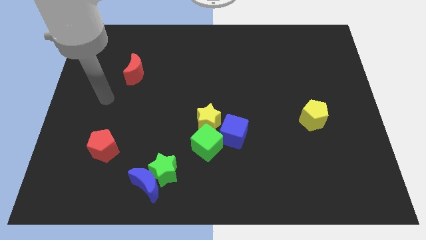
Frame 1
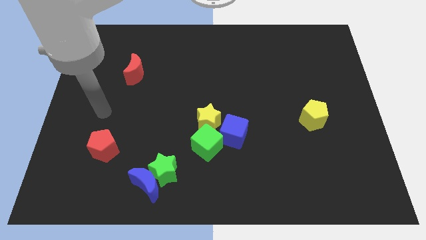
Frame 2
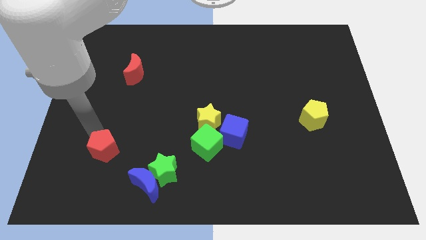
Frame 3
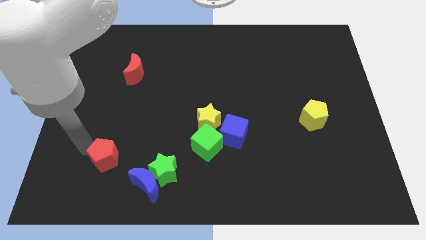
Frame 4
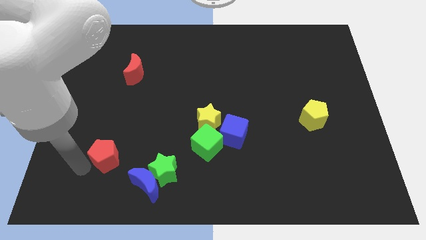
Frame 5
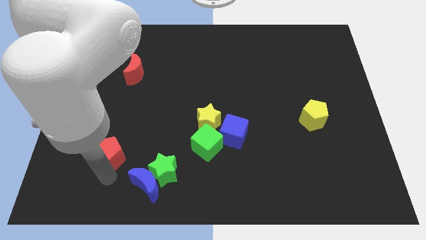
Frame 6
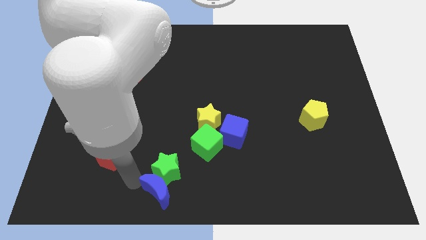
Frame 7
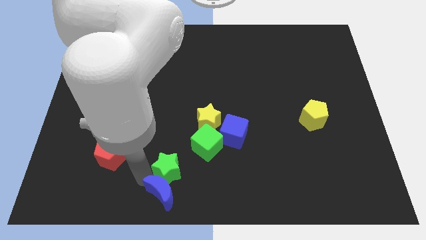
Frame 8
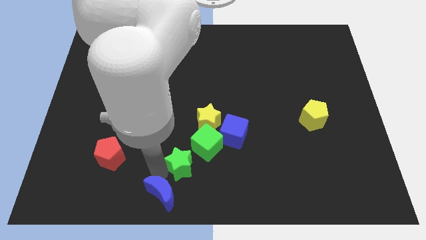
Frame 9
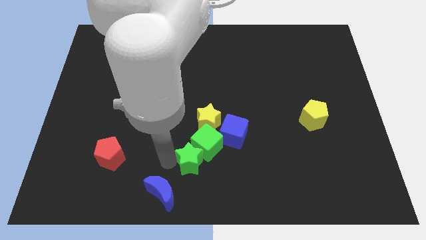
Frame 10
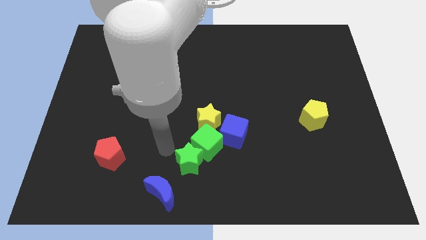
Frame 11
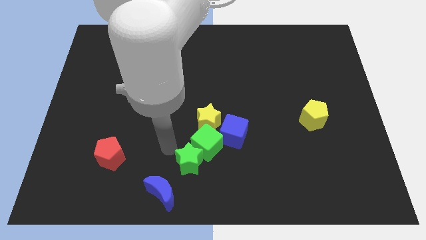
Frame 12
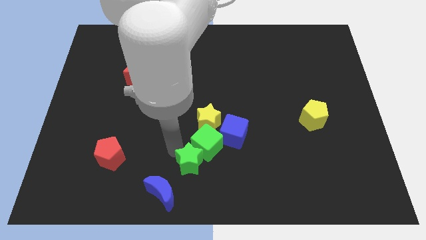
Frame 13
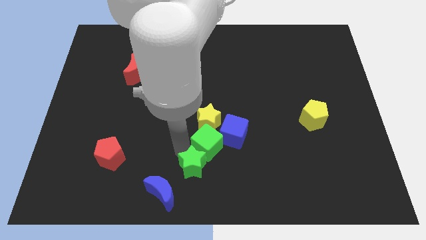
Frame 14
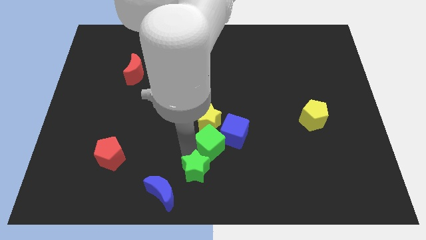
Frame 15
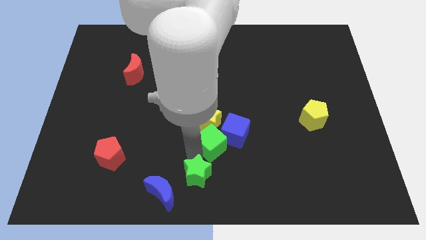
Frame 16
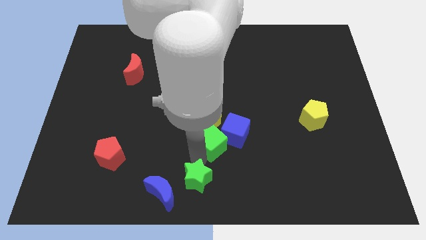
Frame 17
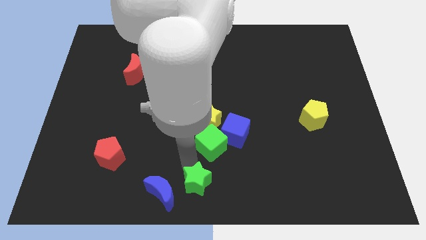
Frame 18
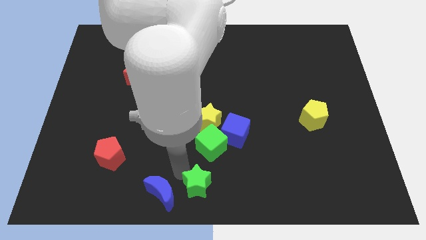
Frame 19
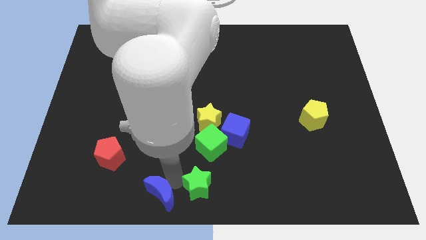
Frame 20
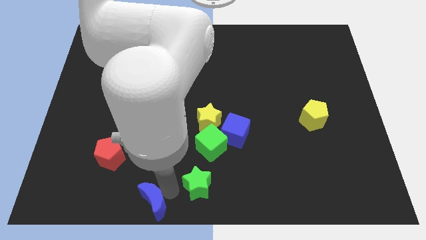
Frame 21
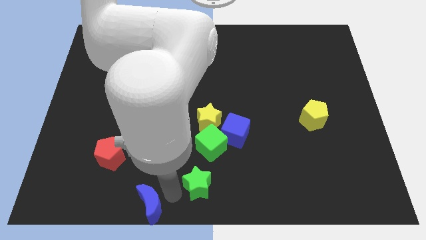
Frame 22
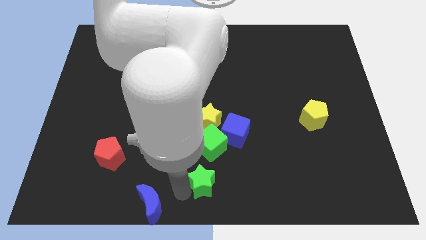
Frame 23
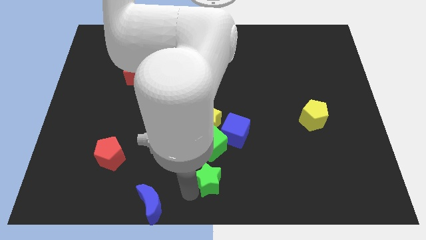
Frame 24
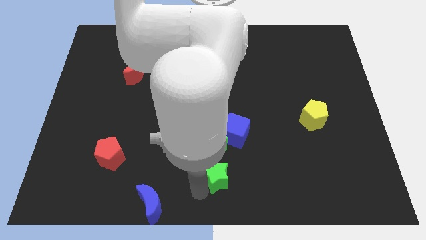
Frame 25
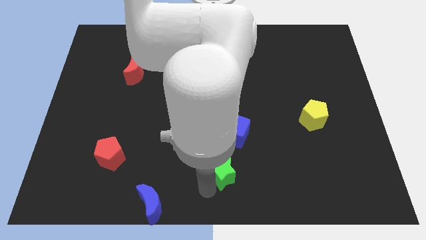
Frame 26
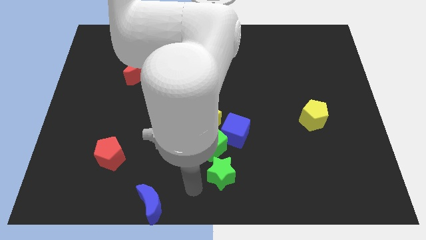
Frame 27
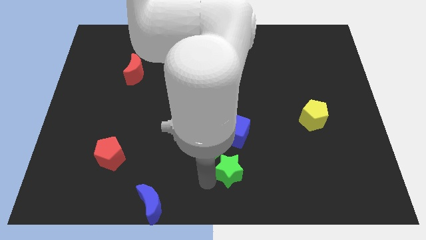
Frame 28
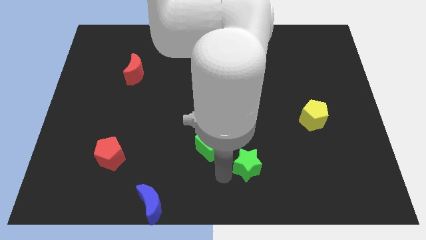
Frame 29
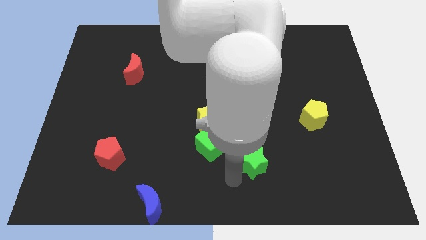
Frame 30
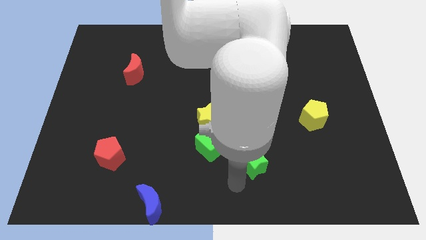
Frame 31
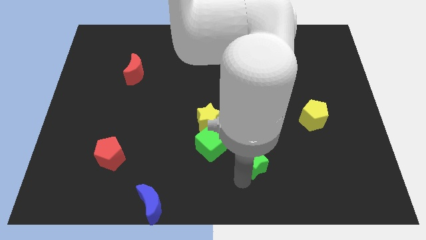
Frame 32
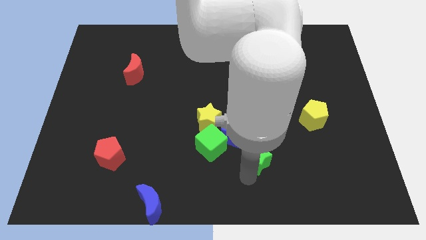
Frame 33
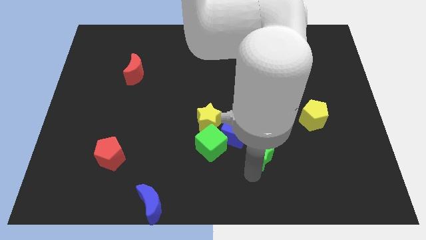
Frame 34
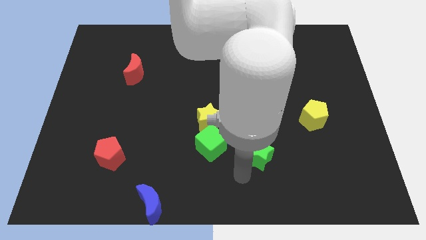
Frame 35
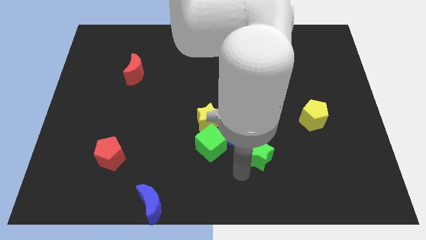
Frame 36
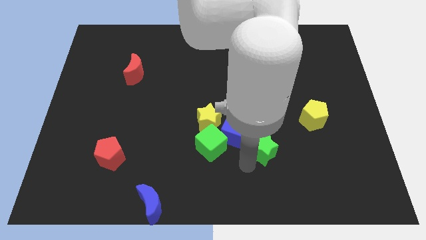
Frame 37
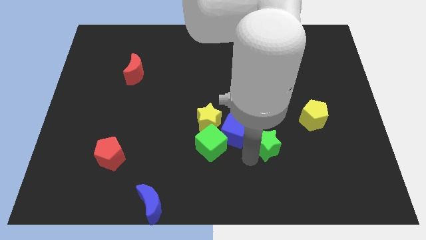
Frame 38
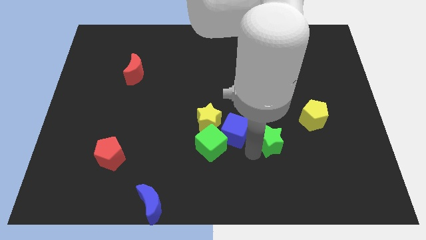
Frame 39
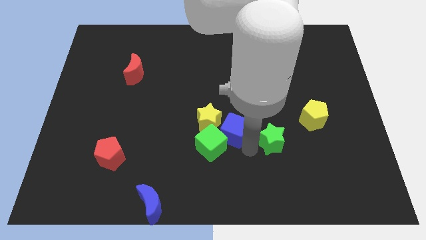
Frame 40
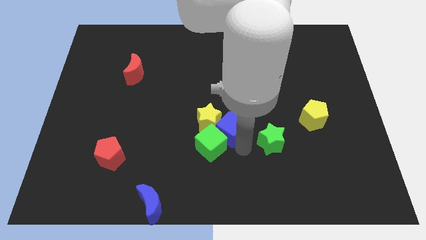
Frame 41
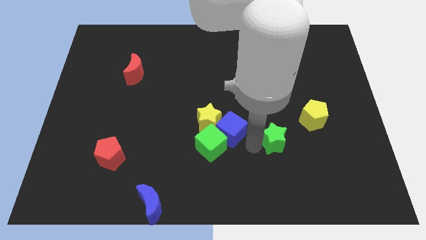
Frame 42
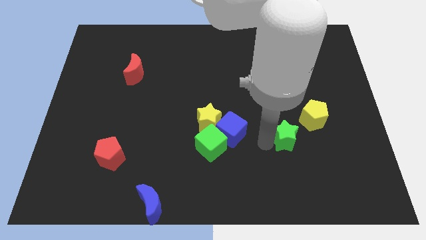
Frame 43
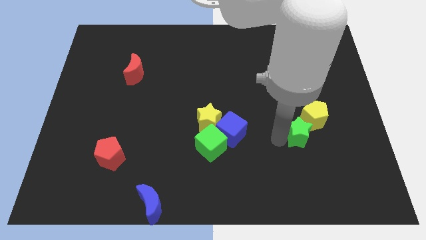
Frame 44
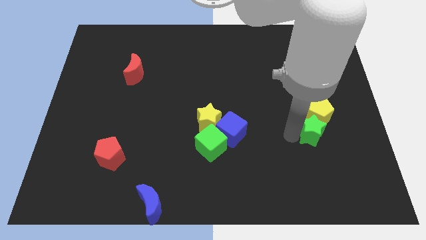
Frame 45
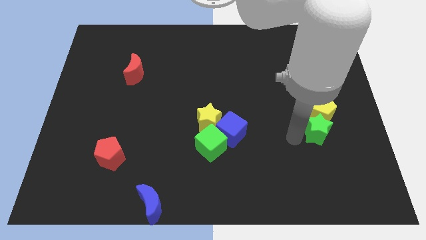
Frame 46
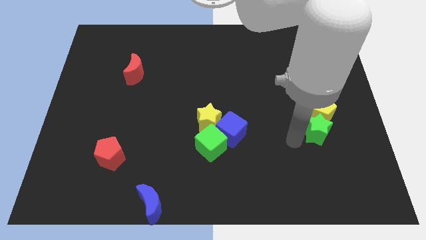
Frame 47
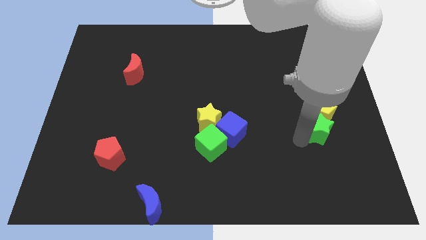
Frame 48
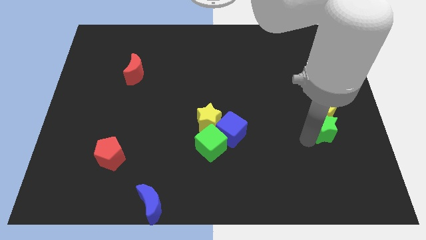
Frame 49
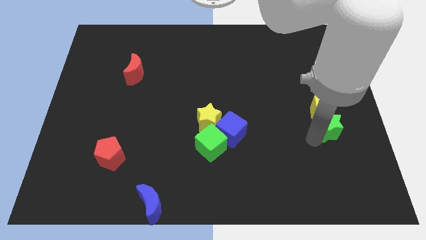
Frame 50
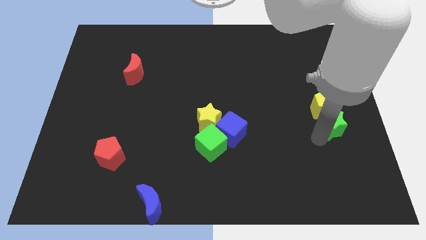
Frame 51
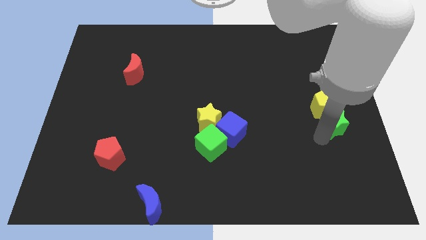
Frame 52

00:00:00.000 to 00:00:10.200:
put the green star to the right side of the board

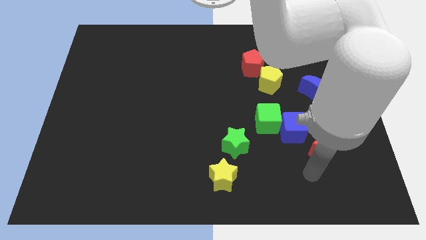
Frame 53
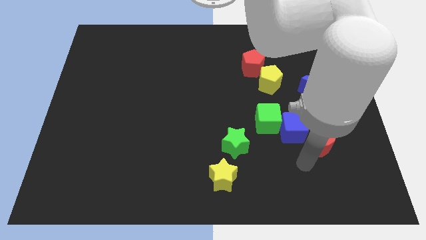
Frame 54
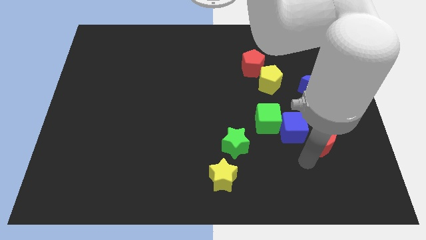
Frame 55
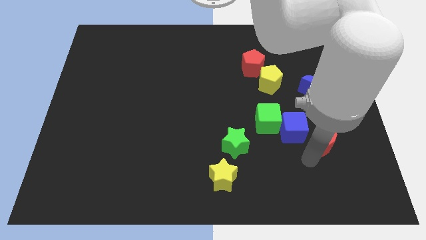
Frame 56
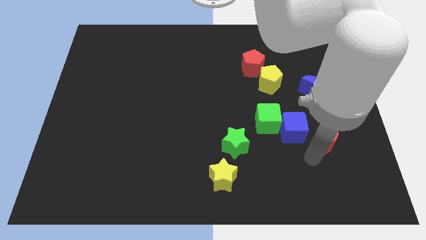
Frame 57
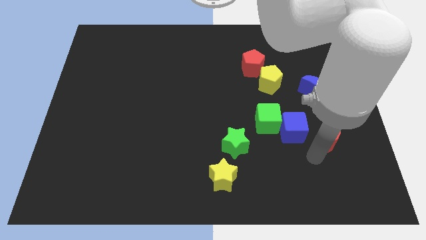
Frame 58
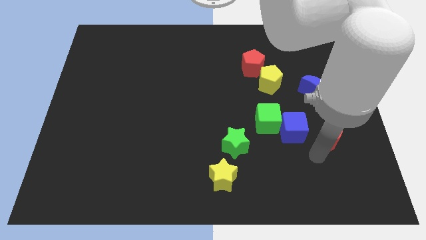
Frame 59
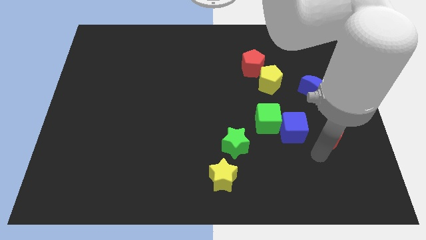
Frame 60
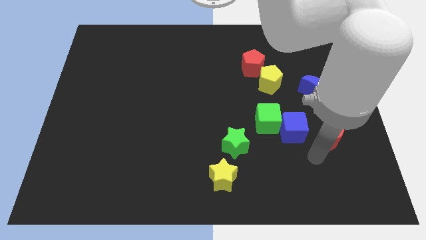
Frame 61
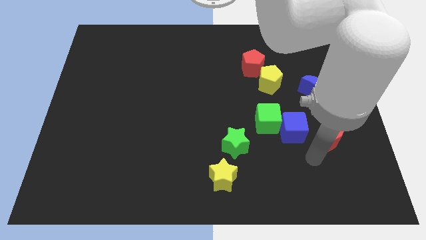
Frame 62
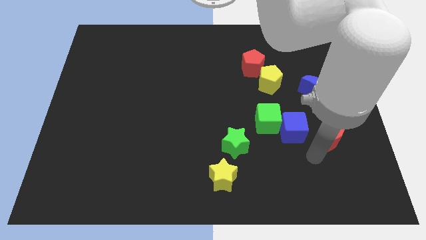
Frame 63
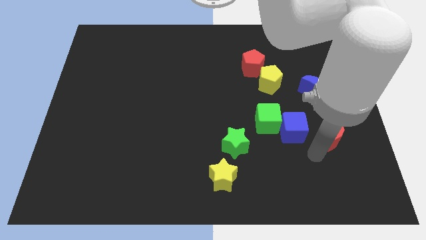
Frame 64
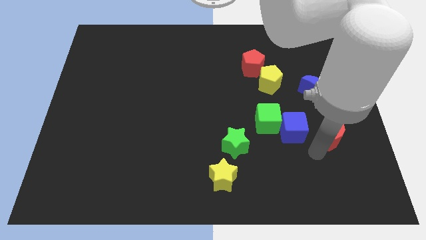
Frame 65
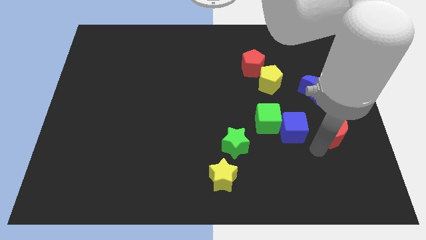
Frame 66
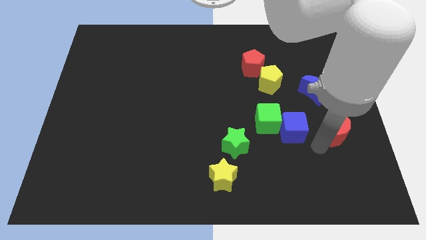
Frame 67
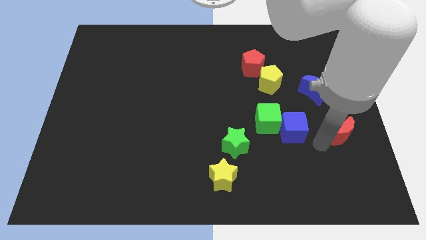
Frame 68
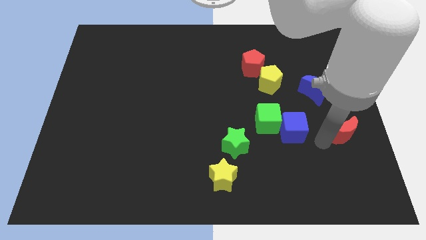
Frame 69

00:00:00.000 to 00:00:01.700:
put the red moon to the right side
